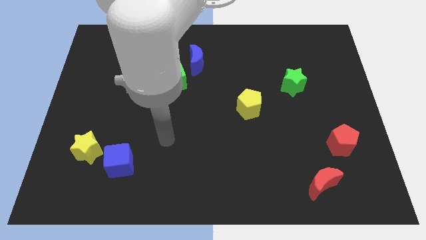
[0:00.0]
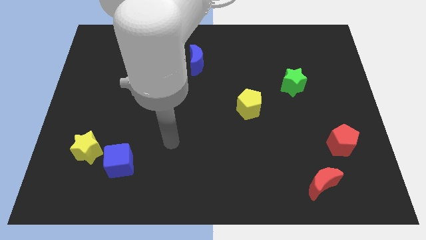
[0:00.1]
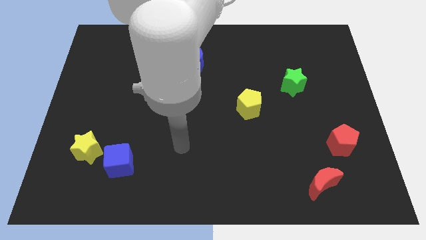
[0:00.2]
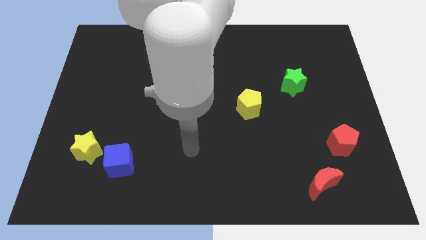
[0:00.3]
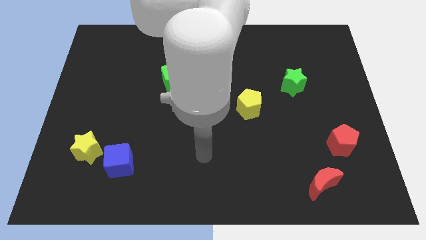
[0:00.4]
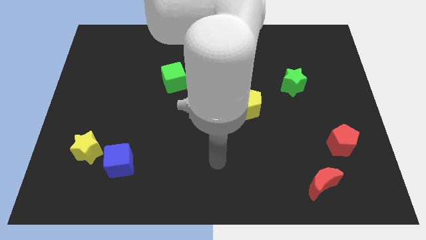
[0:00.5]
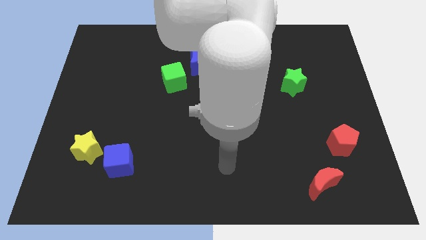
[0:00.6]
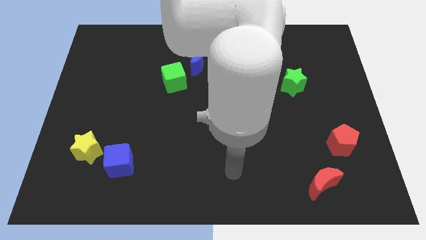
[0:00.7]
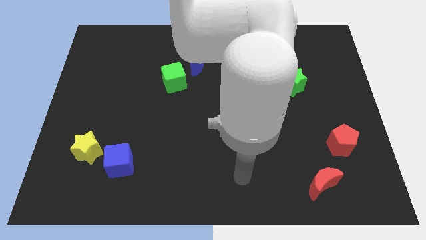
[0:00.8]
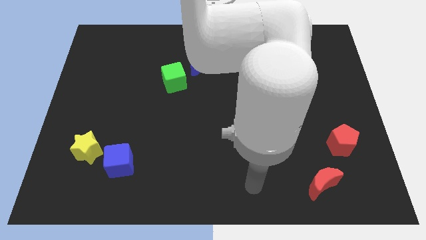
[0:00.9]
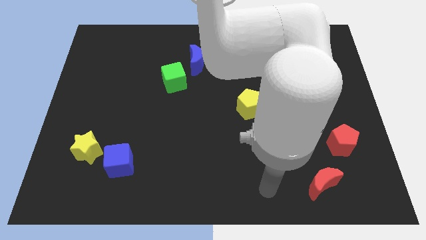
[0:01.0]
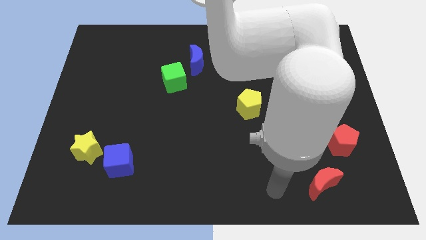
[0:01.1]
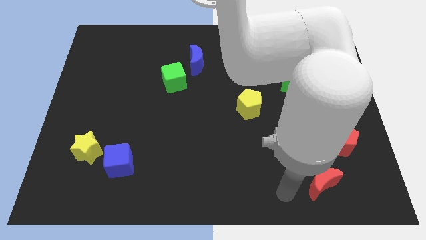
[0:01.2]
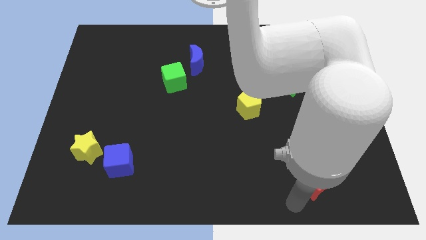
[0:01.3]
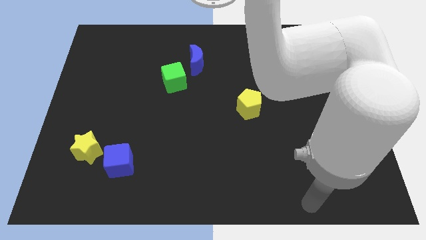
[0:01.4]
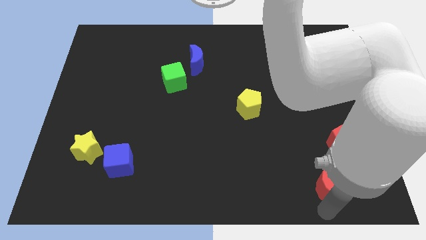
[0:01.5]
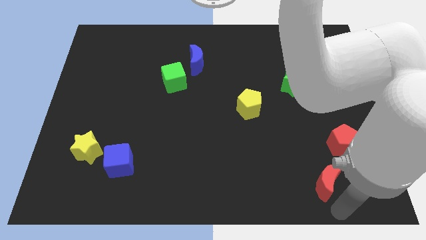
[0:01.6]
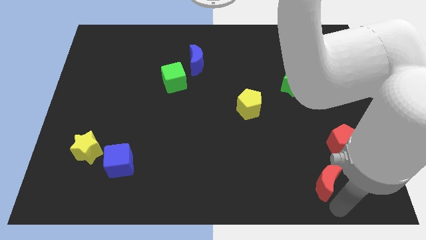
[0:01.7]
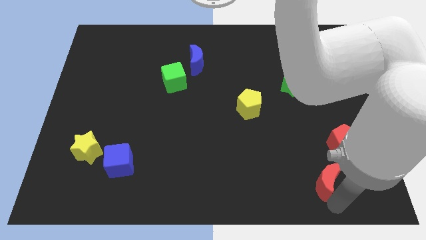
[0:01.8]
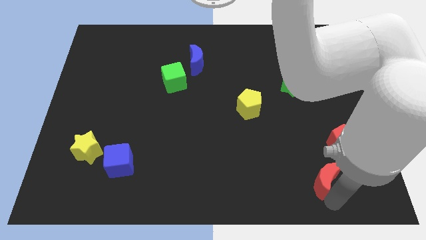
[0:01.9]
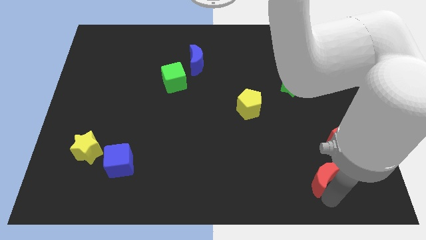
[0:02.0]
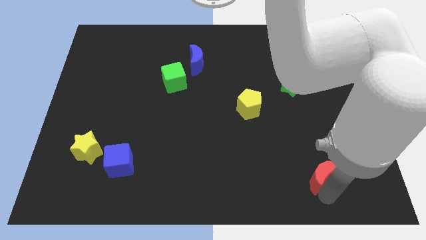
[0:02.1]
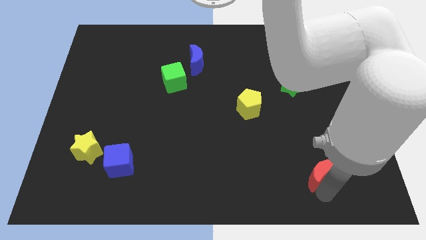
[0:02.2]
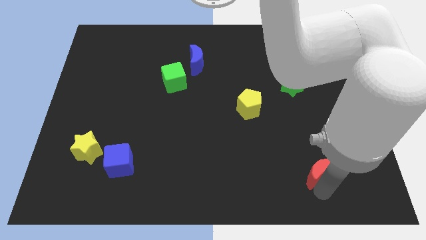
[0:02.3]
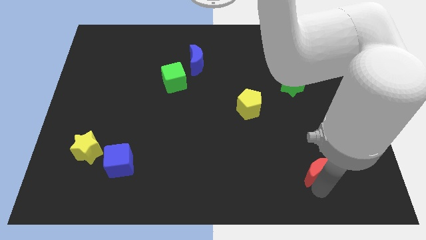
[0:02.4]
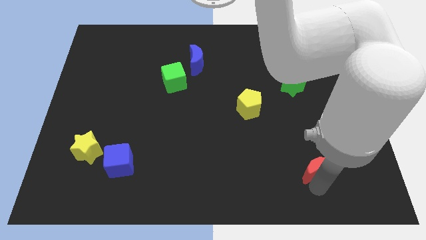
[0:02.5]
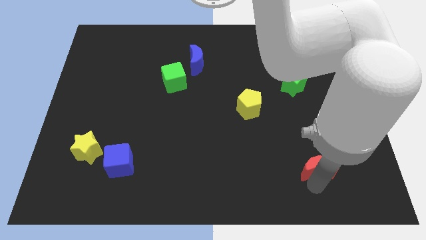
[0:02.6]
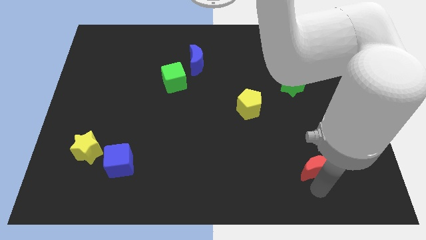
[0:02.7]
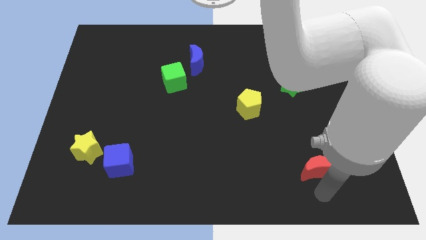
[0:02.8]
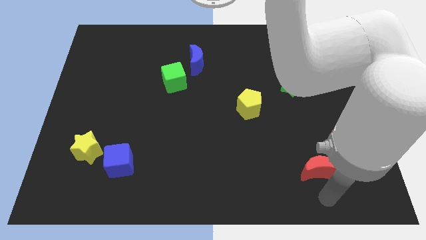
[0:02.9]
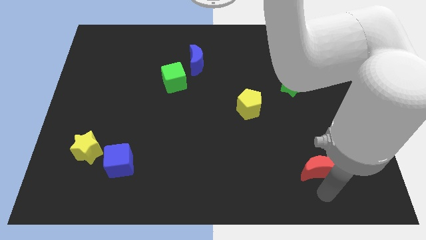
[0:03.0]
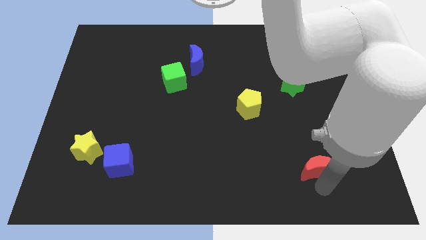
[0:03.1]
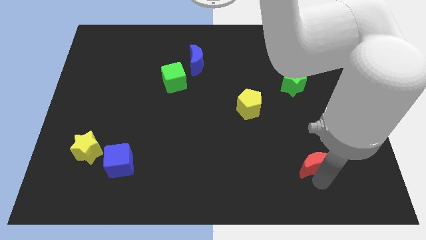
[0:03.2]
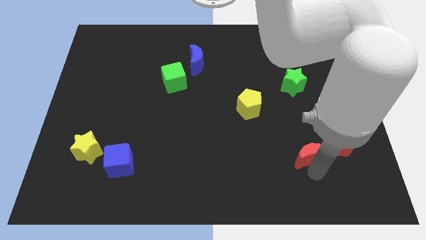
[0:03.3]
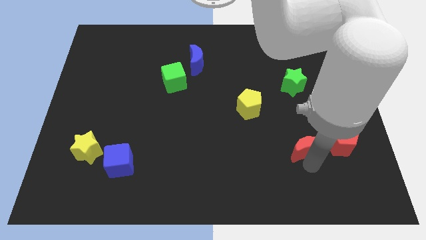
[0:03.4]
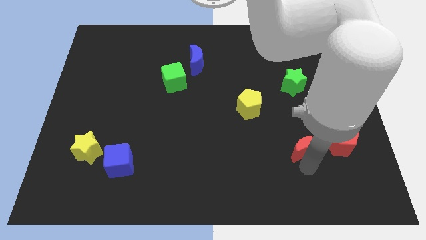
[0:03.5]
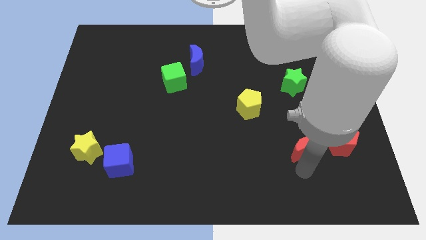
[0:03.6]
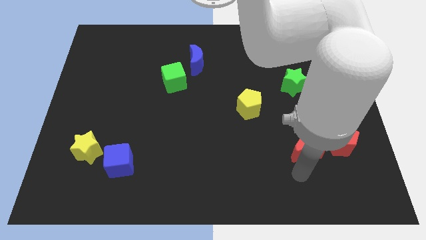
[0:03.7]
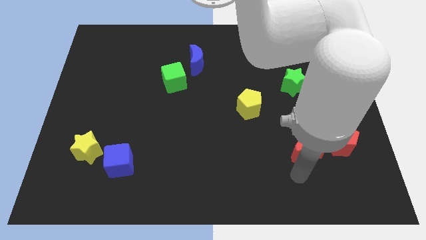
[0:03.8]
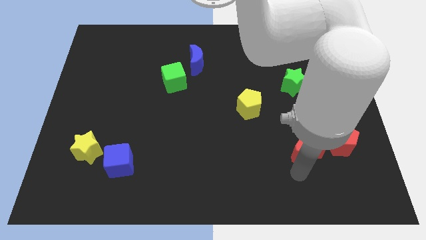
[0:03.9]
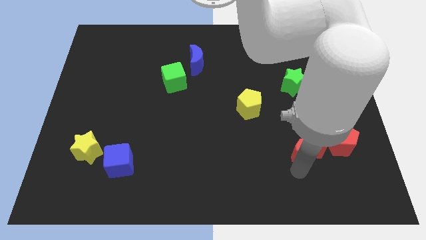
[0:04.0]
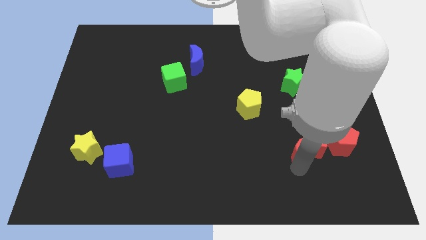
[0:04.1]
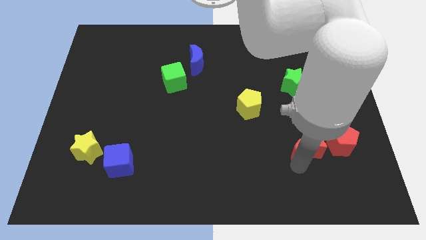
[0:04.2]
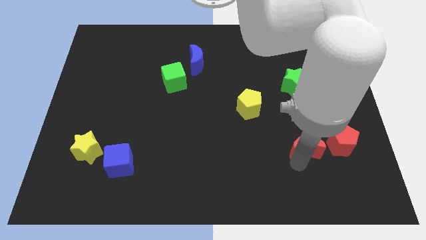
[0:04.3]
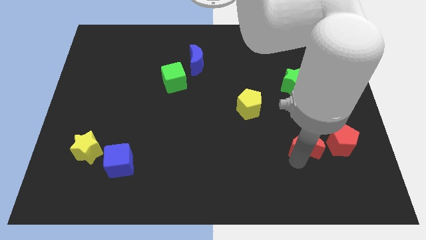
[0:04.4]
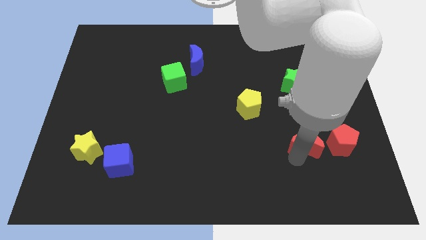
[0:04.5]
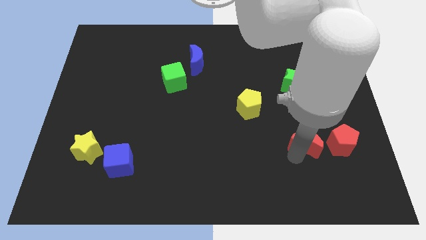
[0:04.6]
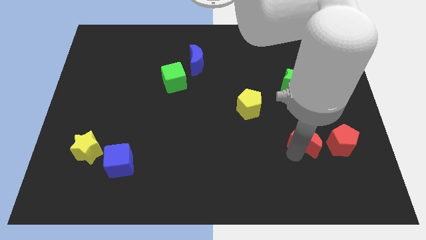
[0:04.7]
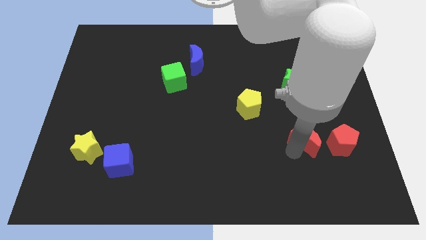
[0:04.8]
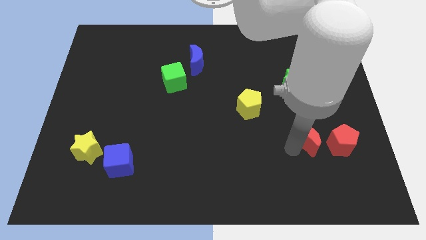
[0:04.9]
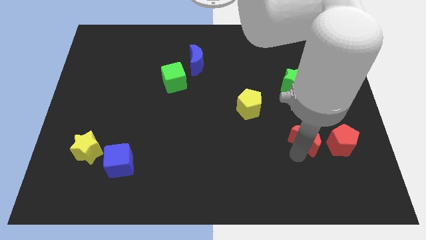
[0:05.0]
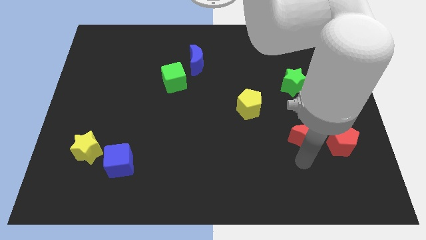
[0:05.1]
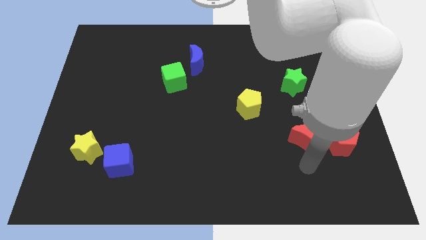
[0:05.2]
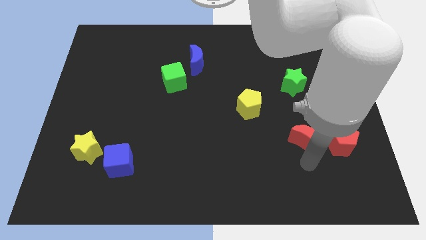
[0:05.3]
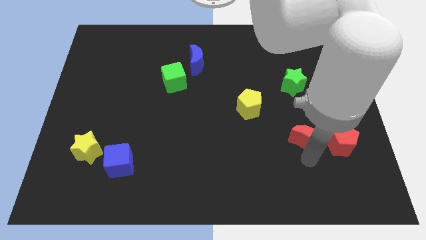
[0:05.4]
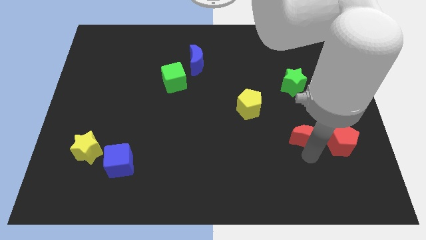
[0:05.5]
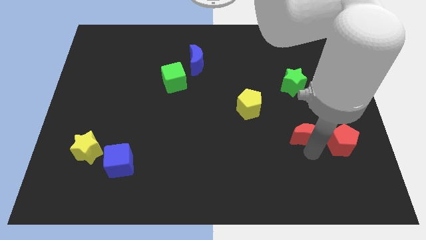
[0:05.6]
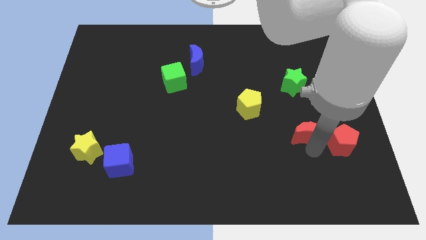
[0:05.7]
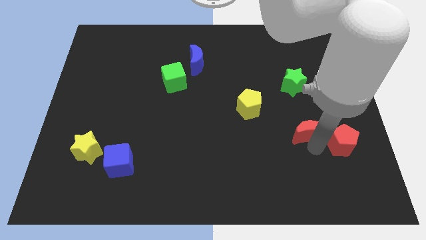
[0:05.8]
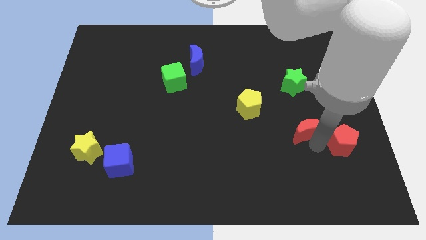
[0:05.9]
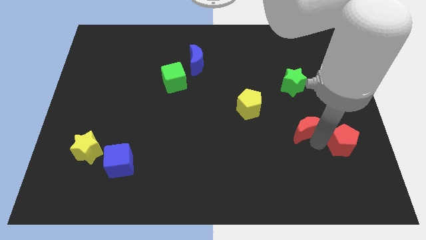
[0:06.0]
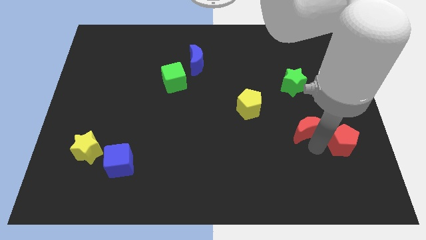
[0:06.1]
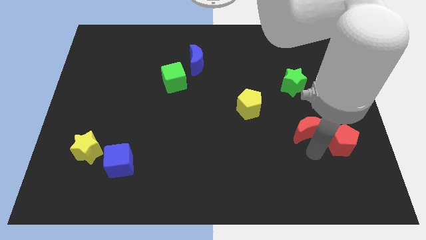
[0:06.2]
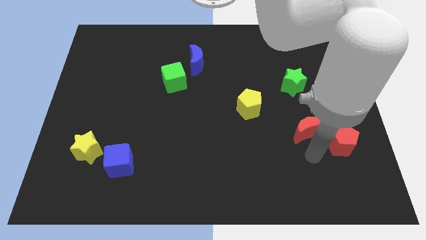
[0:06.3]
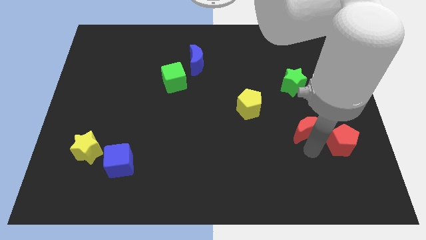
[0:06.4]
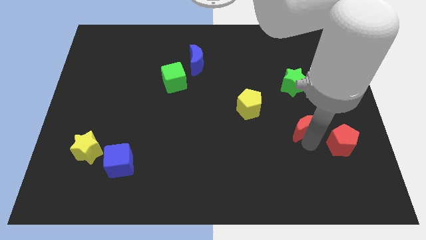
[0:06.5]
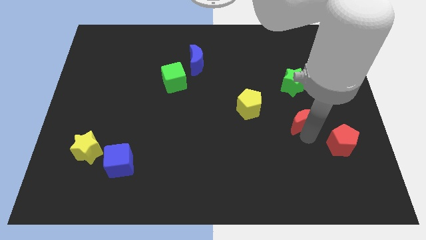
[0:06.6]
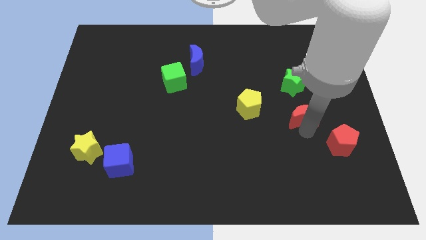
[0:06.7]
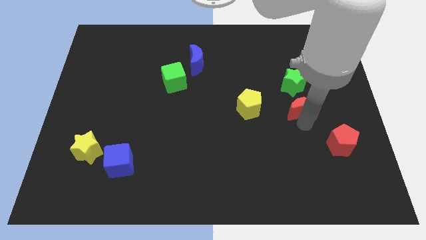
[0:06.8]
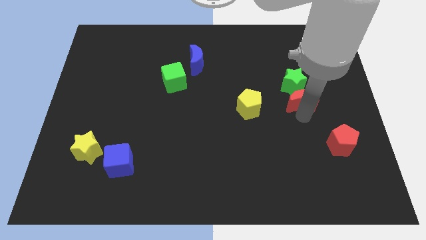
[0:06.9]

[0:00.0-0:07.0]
put the red moon next to the green star
